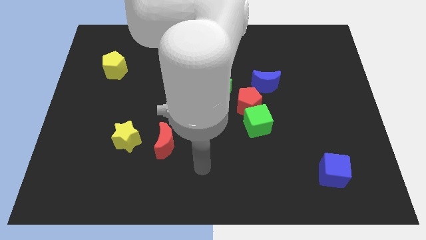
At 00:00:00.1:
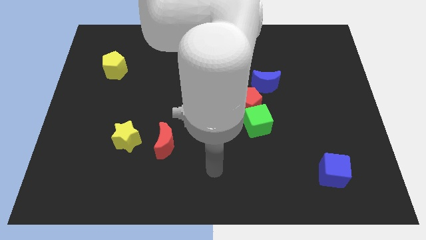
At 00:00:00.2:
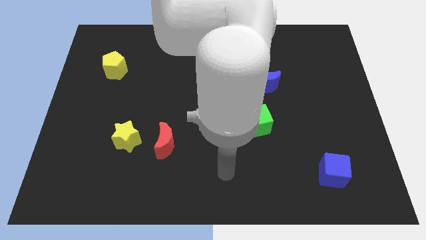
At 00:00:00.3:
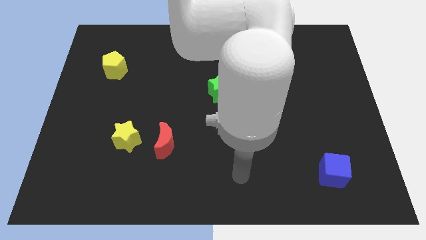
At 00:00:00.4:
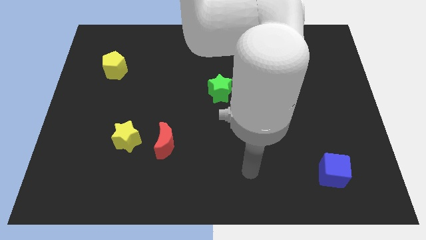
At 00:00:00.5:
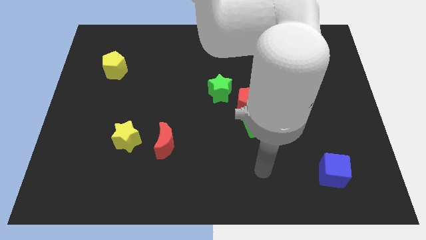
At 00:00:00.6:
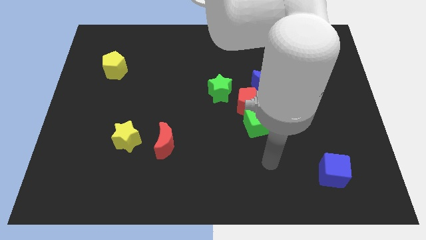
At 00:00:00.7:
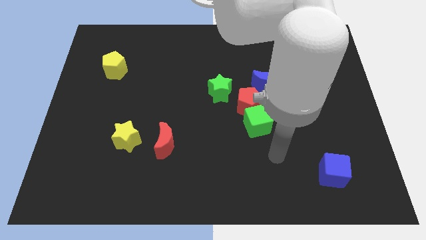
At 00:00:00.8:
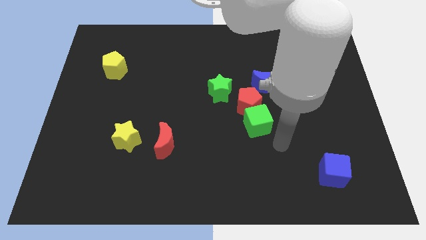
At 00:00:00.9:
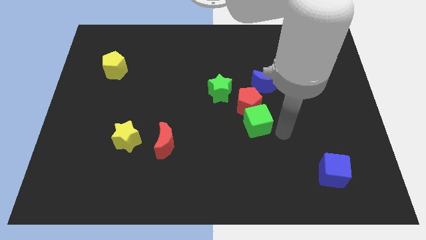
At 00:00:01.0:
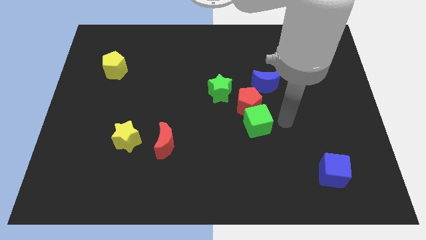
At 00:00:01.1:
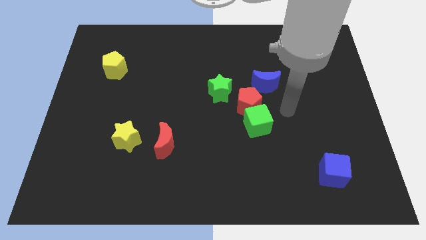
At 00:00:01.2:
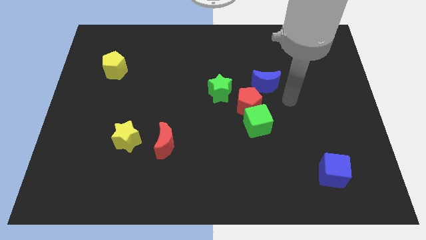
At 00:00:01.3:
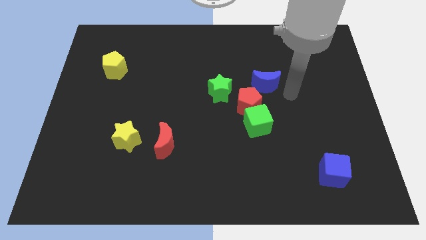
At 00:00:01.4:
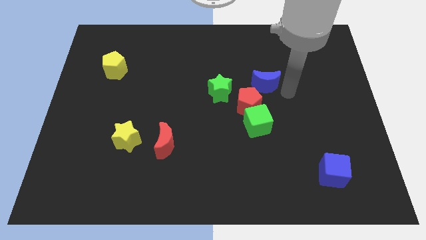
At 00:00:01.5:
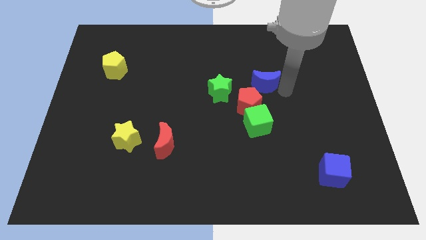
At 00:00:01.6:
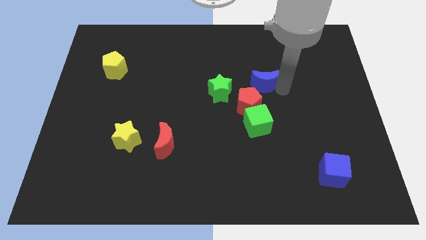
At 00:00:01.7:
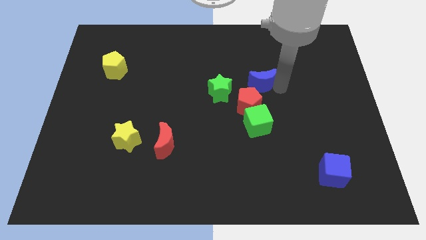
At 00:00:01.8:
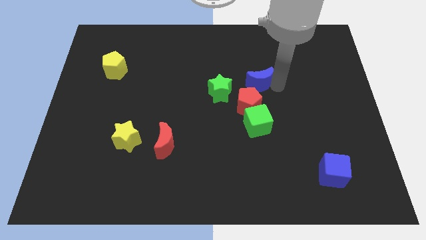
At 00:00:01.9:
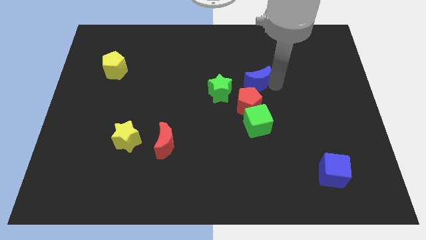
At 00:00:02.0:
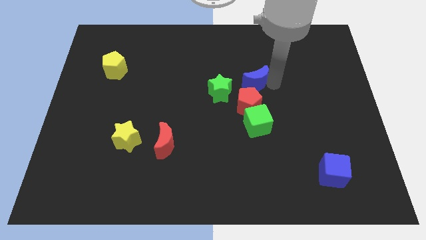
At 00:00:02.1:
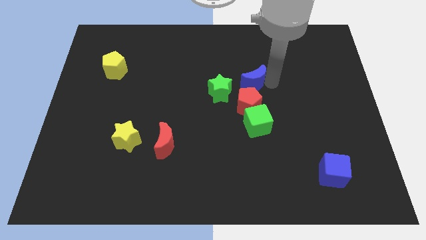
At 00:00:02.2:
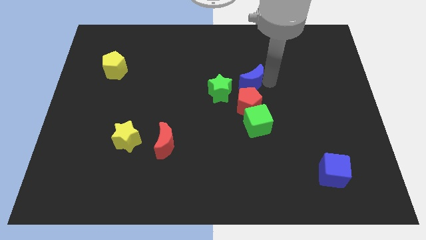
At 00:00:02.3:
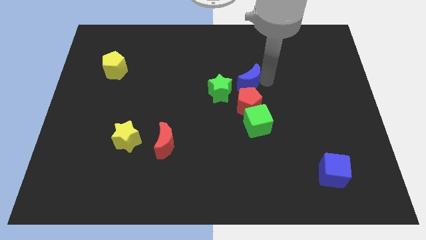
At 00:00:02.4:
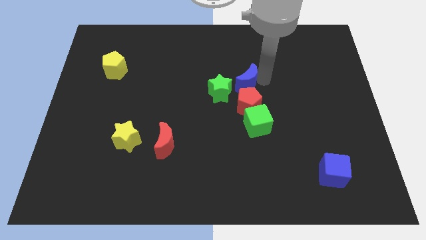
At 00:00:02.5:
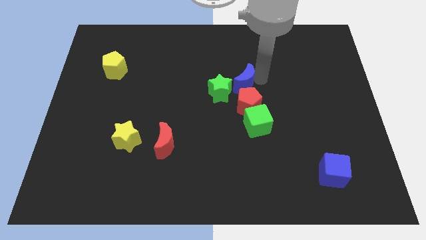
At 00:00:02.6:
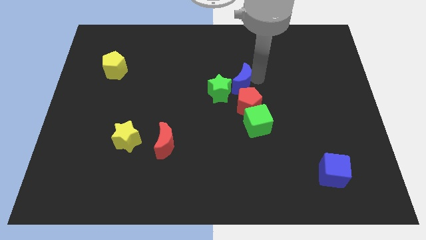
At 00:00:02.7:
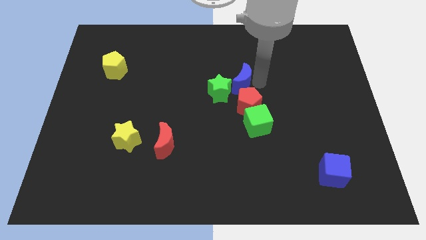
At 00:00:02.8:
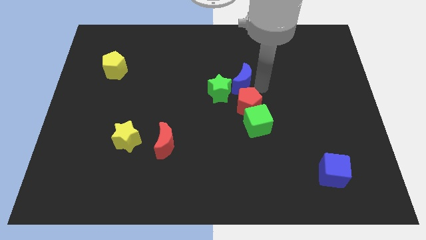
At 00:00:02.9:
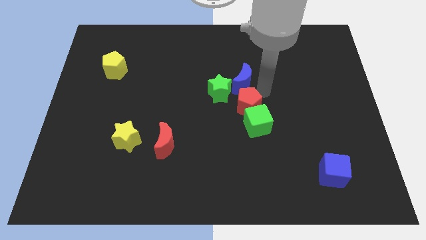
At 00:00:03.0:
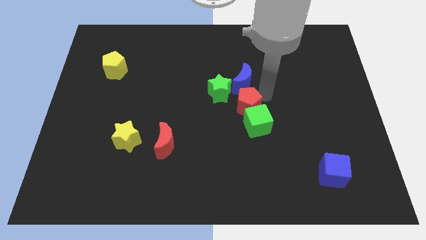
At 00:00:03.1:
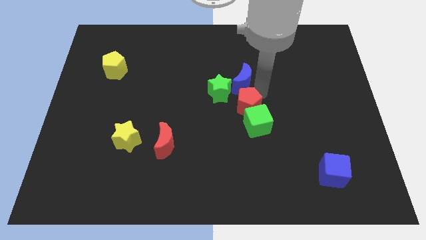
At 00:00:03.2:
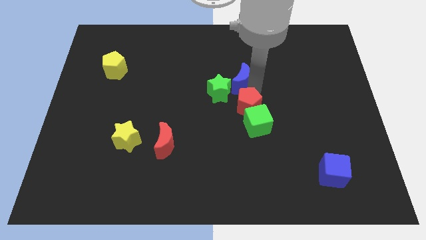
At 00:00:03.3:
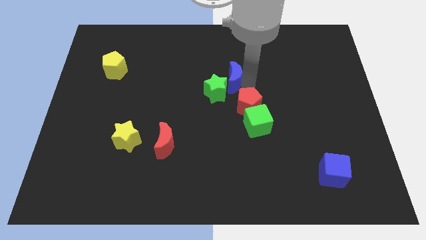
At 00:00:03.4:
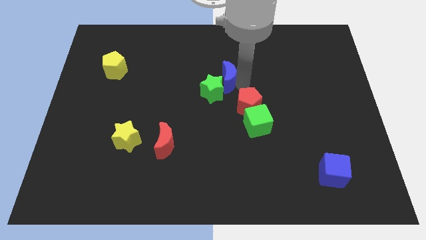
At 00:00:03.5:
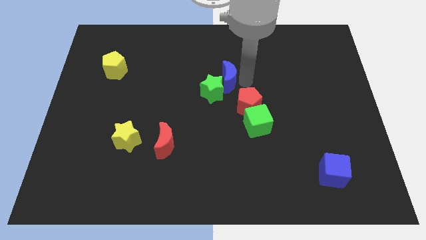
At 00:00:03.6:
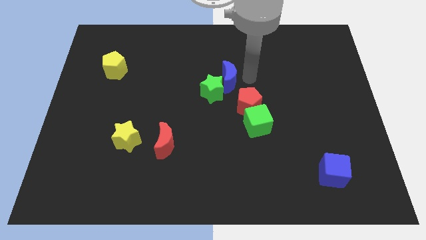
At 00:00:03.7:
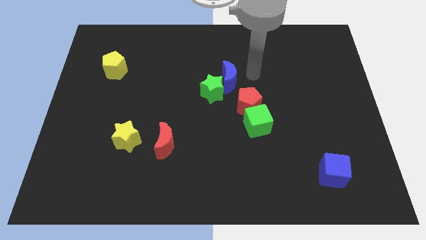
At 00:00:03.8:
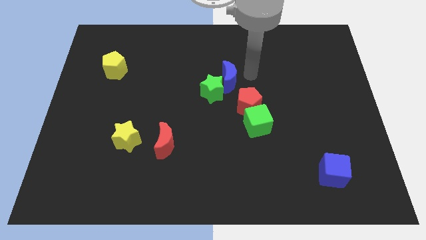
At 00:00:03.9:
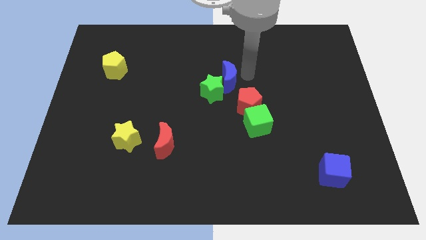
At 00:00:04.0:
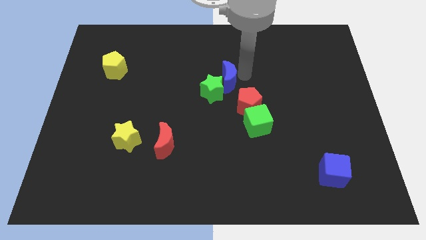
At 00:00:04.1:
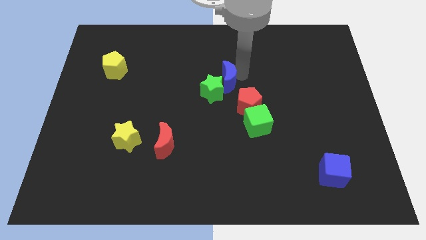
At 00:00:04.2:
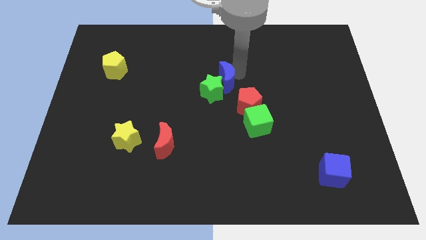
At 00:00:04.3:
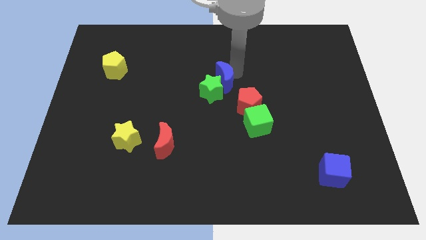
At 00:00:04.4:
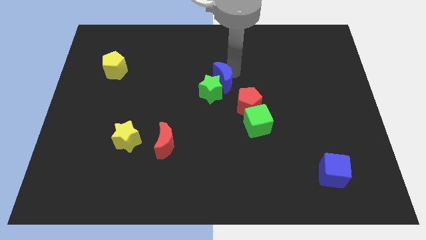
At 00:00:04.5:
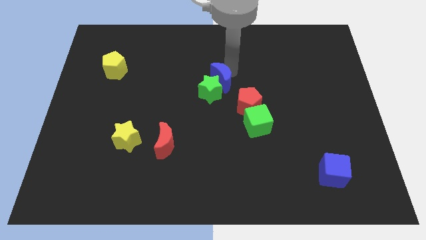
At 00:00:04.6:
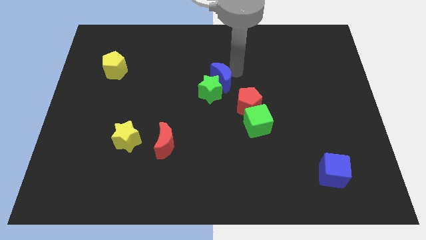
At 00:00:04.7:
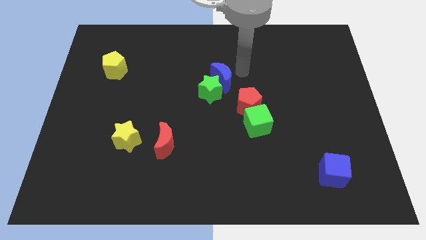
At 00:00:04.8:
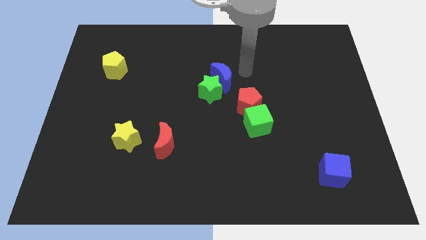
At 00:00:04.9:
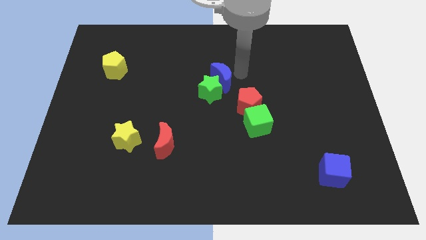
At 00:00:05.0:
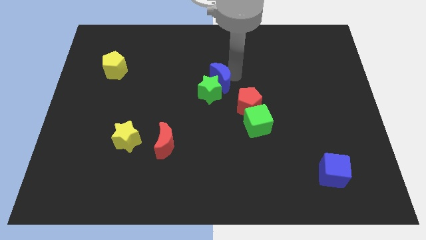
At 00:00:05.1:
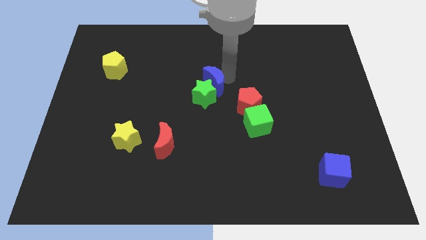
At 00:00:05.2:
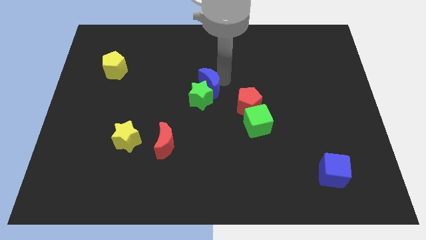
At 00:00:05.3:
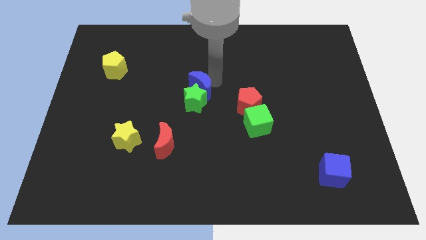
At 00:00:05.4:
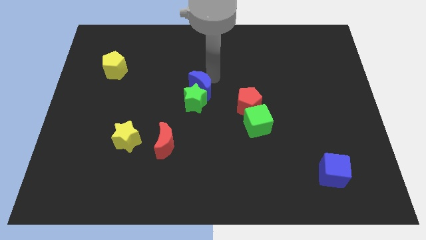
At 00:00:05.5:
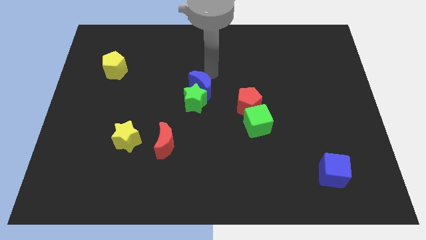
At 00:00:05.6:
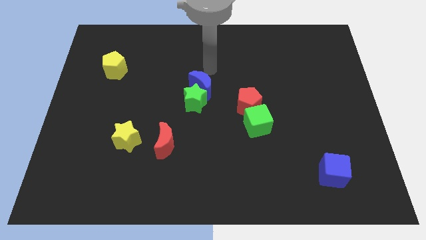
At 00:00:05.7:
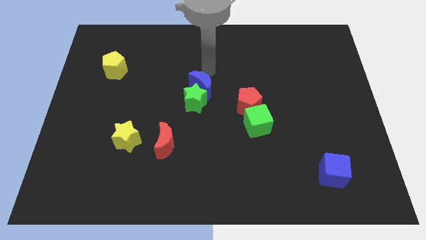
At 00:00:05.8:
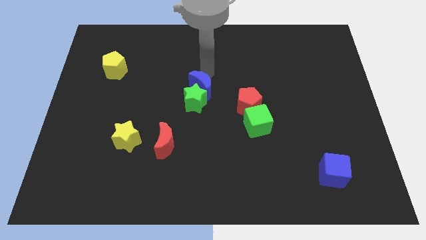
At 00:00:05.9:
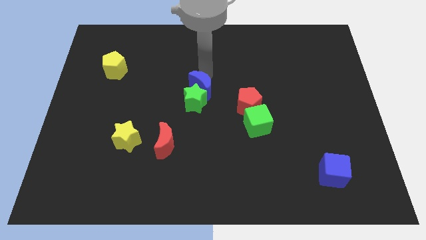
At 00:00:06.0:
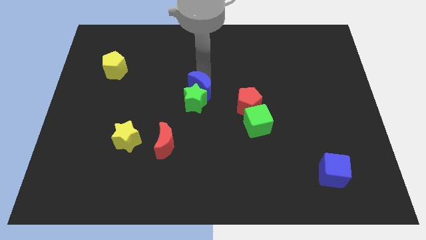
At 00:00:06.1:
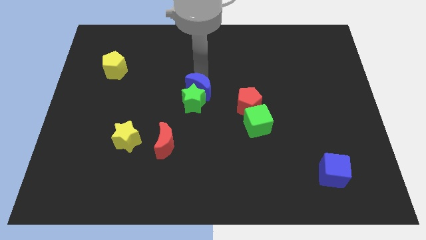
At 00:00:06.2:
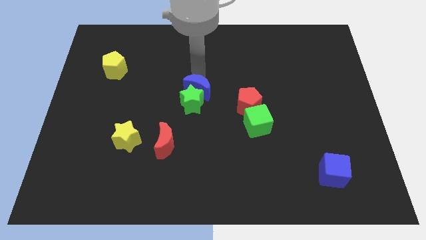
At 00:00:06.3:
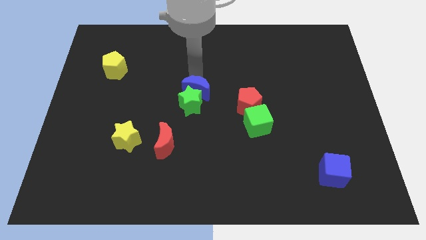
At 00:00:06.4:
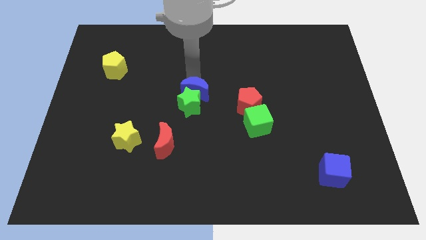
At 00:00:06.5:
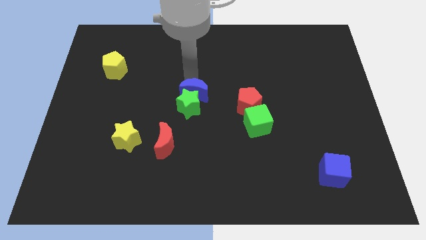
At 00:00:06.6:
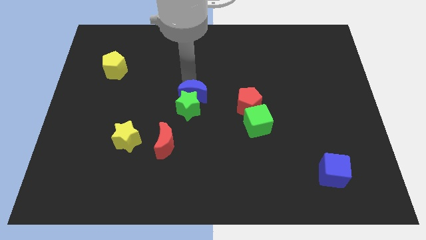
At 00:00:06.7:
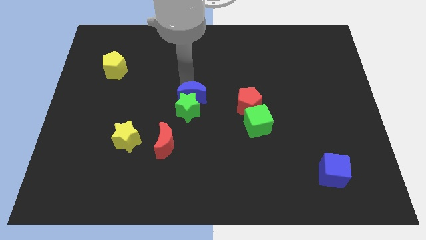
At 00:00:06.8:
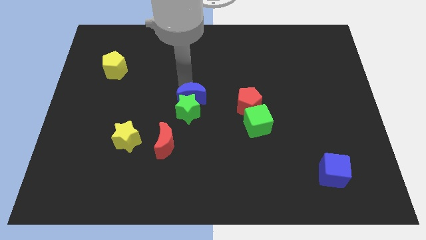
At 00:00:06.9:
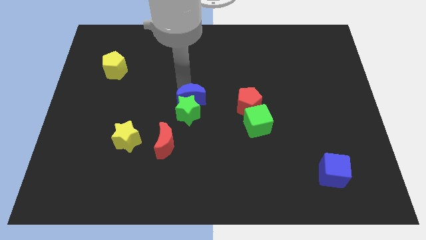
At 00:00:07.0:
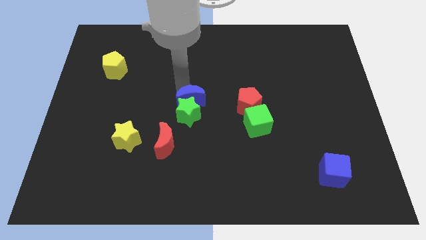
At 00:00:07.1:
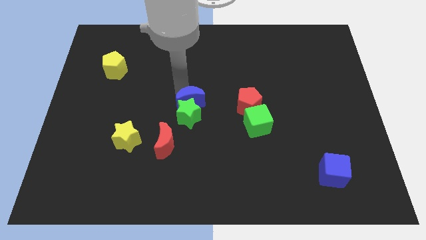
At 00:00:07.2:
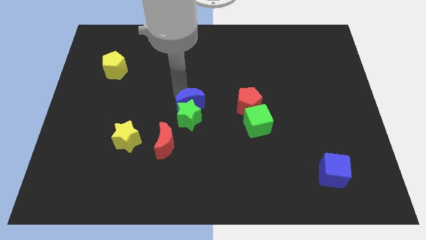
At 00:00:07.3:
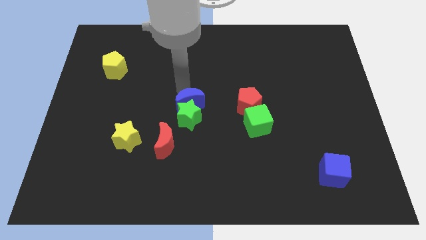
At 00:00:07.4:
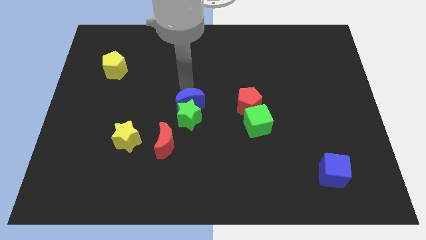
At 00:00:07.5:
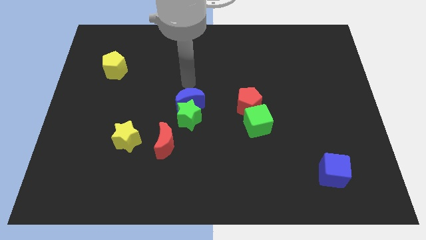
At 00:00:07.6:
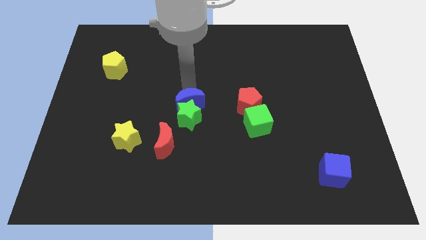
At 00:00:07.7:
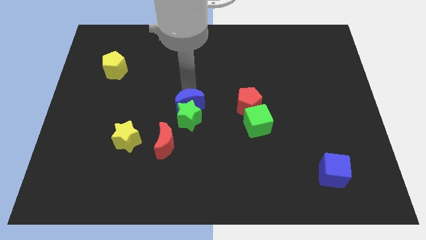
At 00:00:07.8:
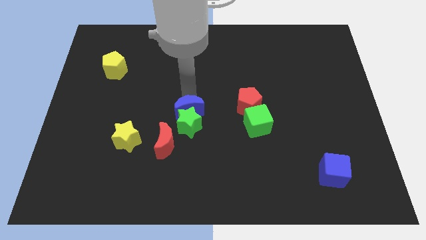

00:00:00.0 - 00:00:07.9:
slide the blue moon to the top right of the red moon
